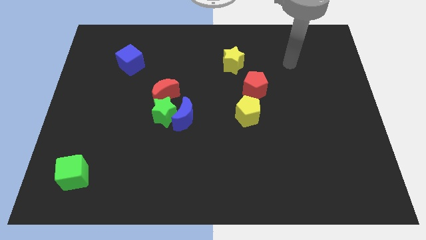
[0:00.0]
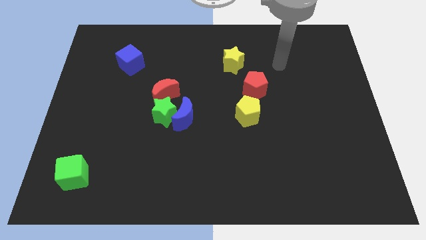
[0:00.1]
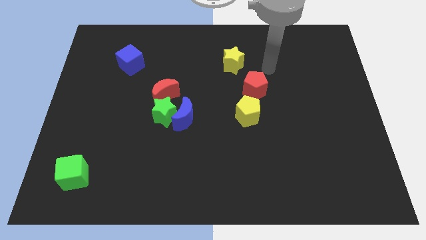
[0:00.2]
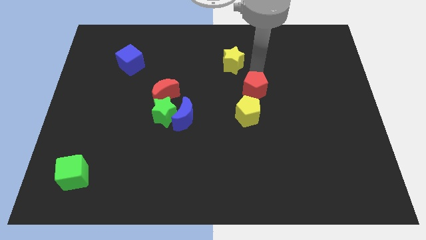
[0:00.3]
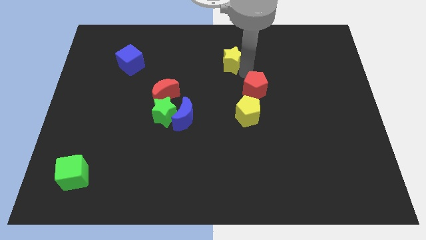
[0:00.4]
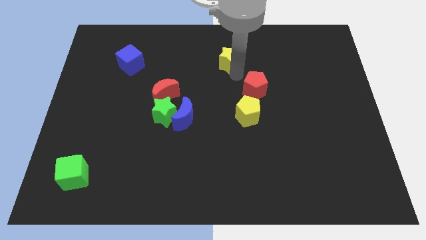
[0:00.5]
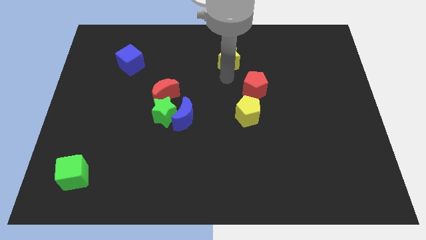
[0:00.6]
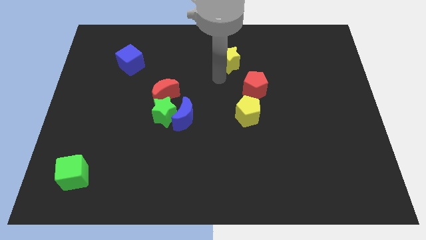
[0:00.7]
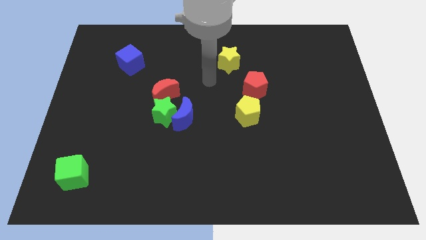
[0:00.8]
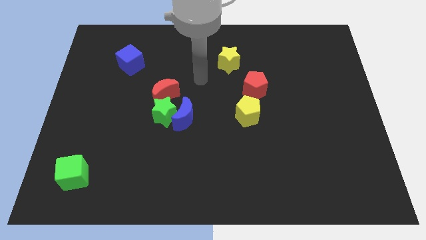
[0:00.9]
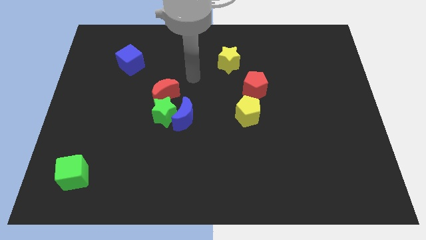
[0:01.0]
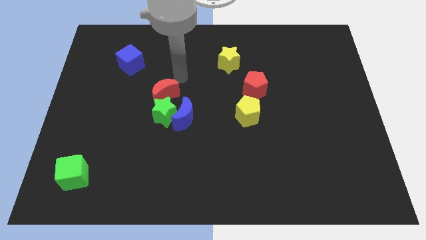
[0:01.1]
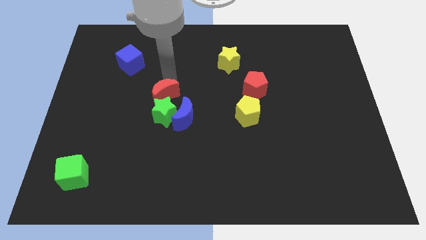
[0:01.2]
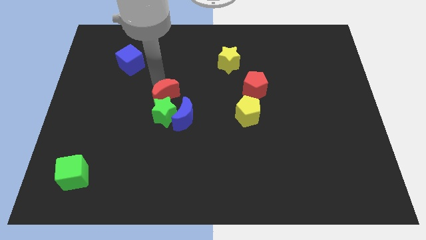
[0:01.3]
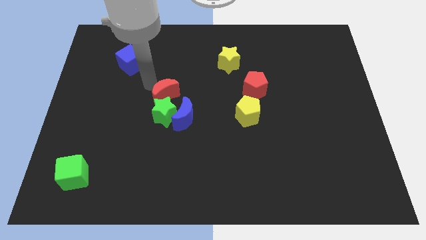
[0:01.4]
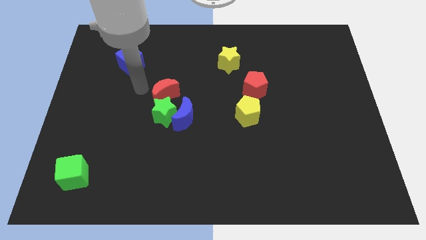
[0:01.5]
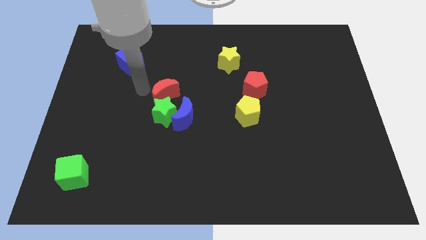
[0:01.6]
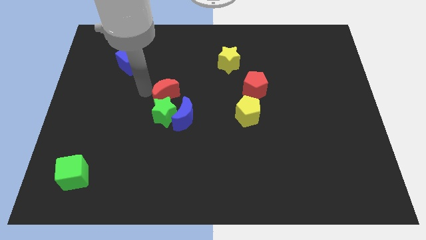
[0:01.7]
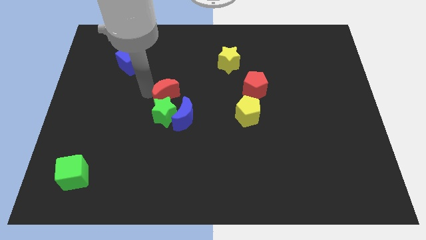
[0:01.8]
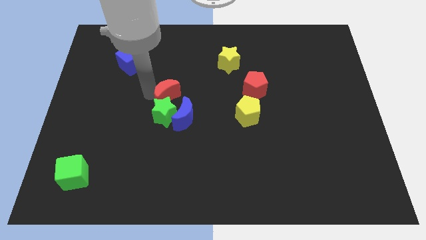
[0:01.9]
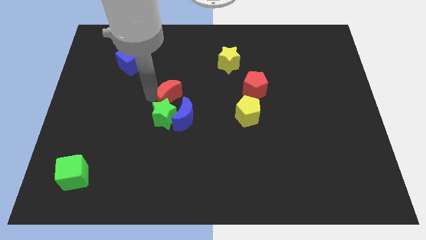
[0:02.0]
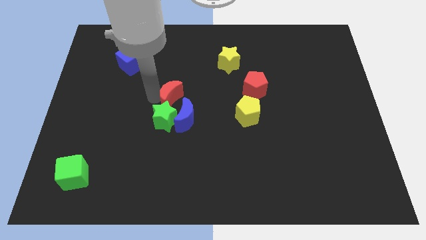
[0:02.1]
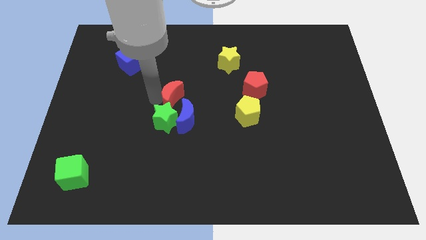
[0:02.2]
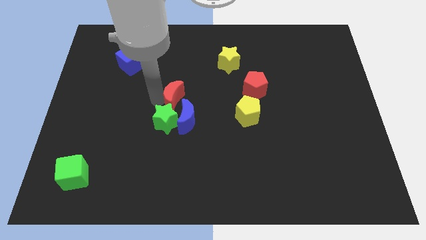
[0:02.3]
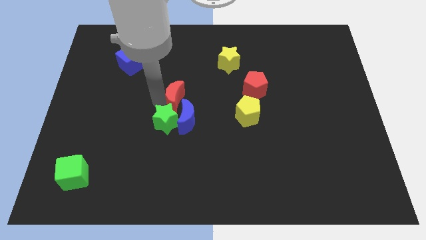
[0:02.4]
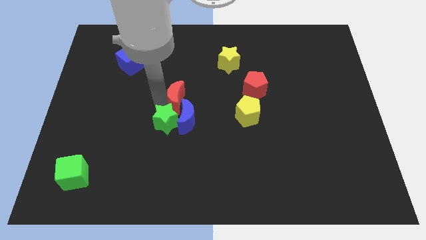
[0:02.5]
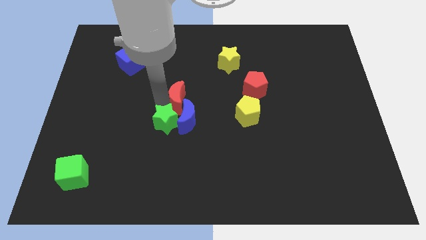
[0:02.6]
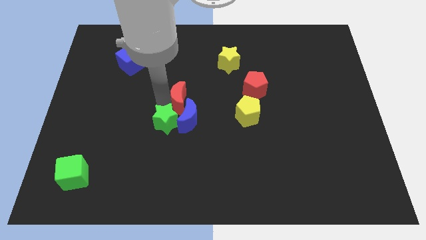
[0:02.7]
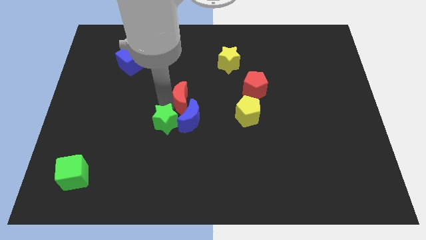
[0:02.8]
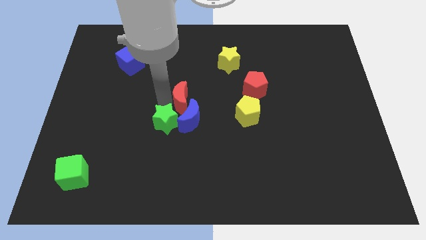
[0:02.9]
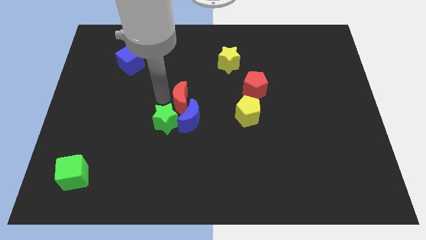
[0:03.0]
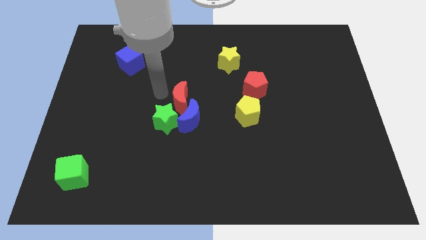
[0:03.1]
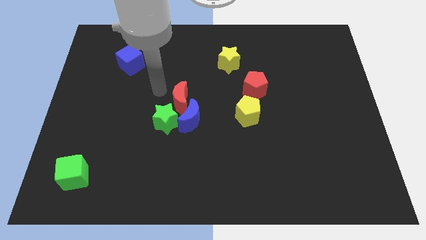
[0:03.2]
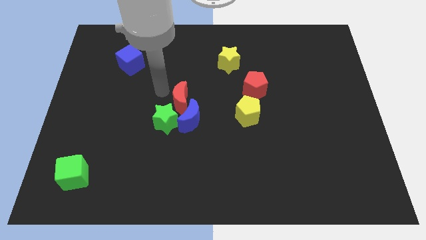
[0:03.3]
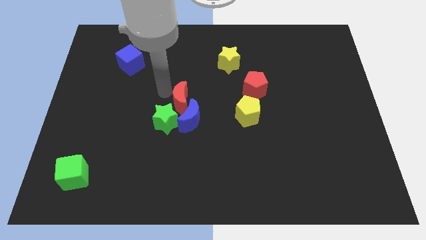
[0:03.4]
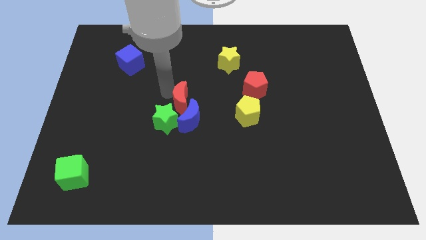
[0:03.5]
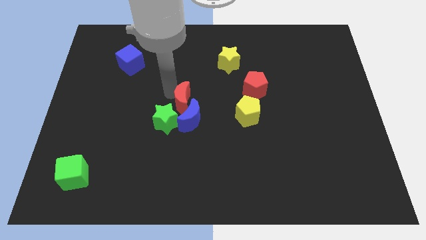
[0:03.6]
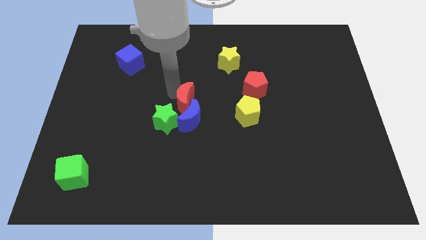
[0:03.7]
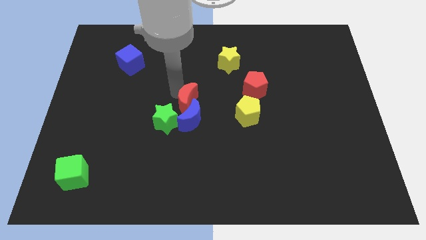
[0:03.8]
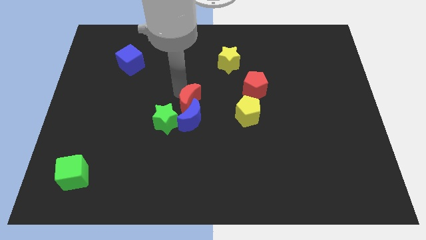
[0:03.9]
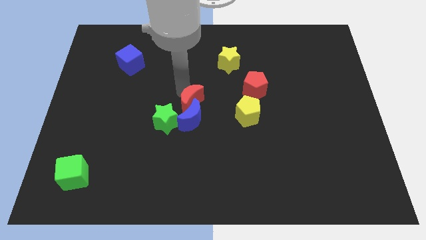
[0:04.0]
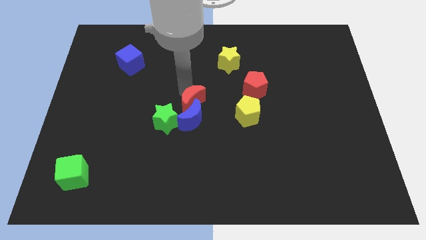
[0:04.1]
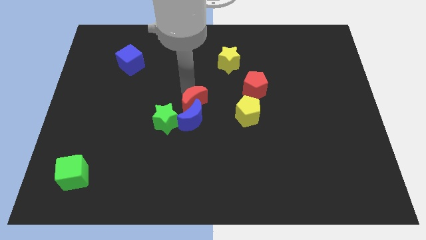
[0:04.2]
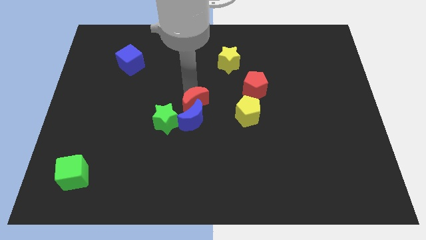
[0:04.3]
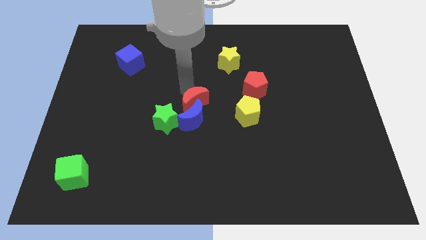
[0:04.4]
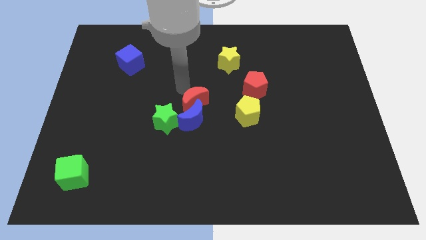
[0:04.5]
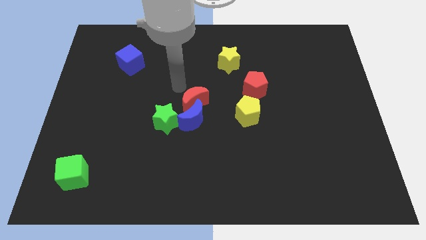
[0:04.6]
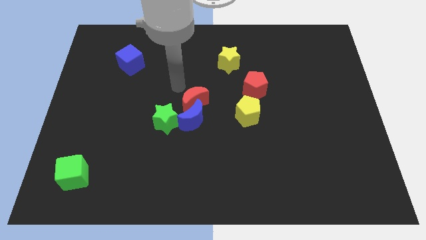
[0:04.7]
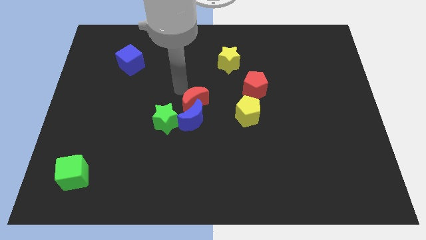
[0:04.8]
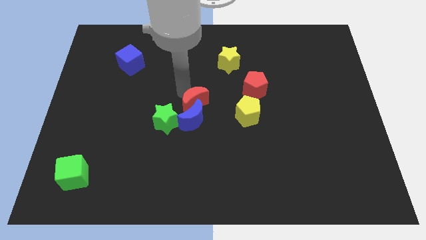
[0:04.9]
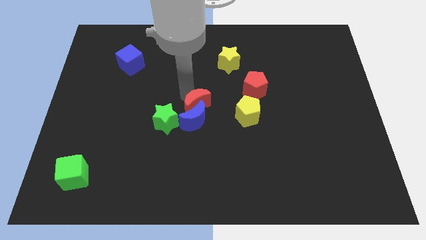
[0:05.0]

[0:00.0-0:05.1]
slide the red moon somewhat downwards and then to the right

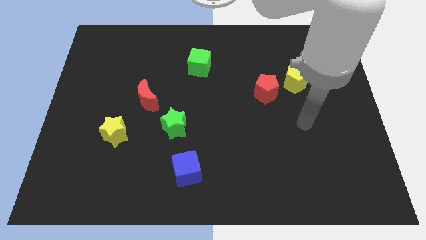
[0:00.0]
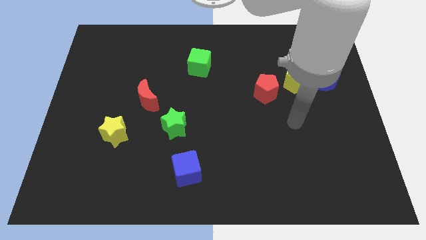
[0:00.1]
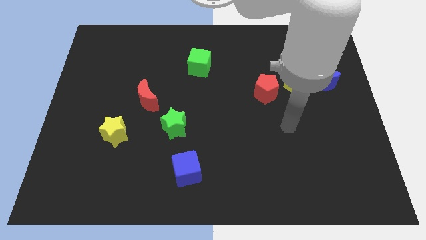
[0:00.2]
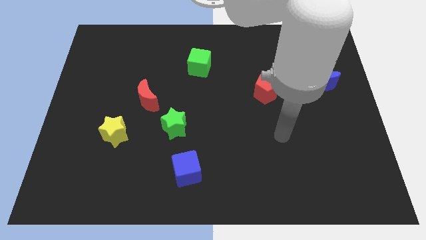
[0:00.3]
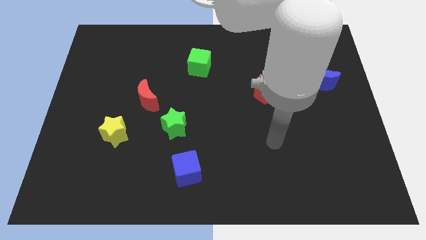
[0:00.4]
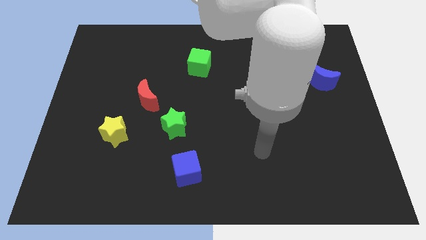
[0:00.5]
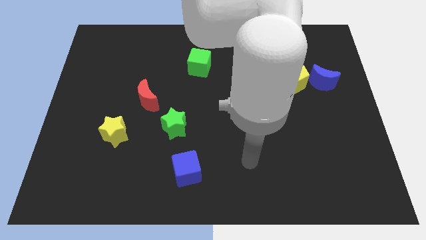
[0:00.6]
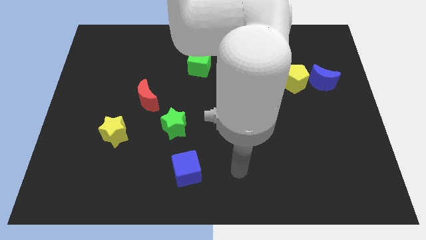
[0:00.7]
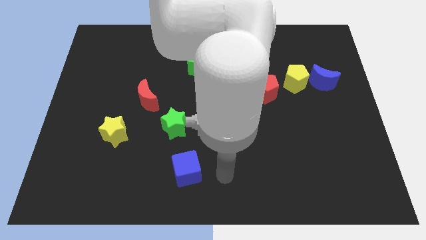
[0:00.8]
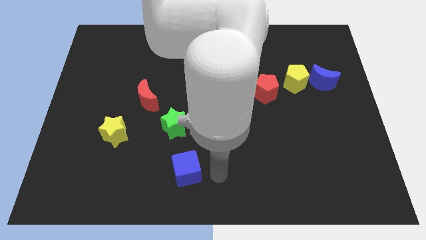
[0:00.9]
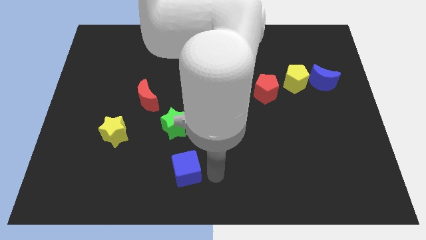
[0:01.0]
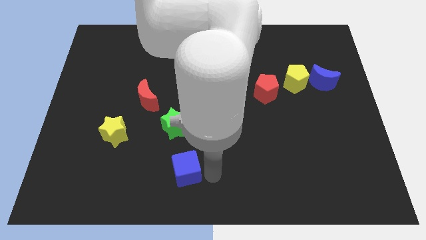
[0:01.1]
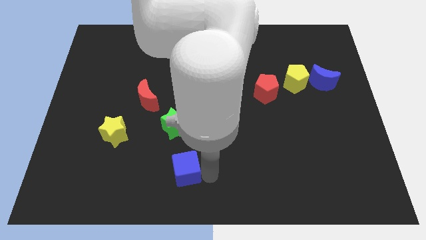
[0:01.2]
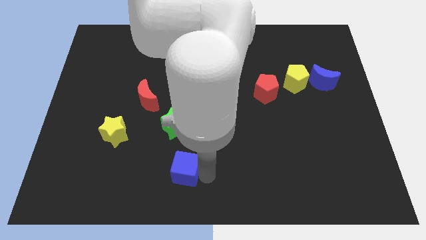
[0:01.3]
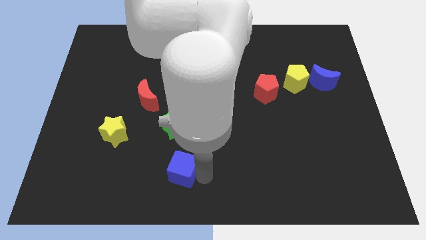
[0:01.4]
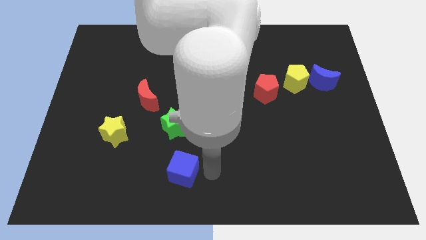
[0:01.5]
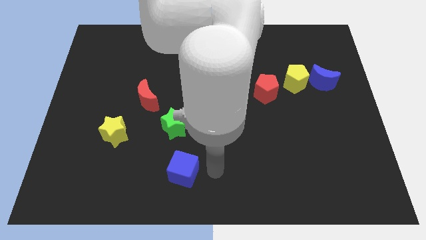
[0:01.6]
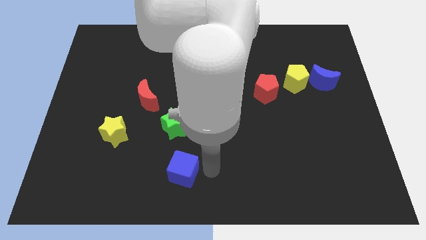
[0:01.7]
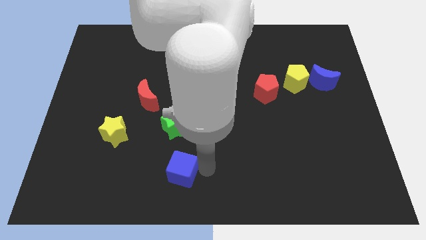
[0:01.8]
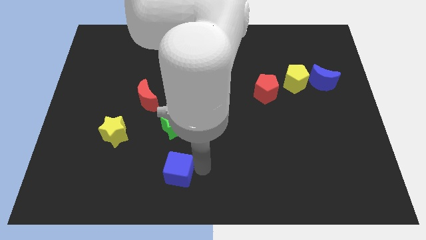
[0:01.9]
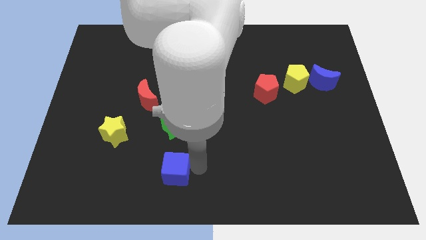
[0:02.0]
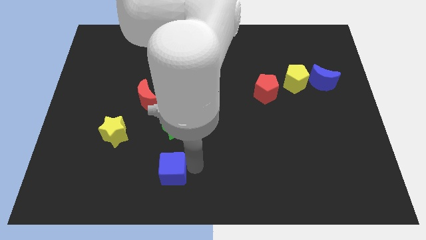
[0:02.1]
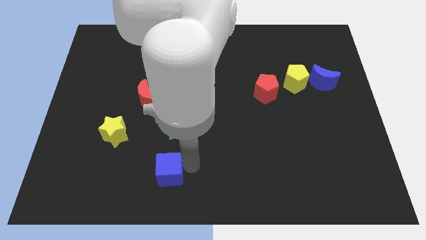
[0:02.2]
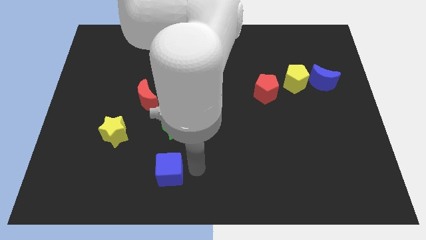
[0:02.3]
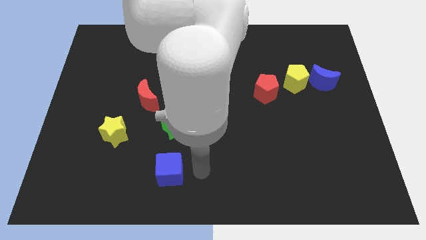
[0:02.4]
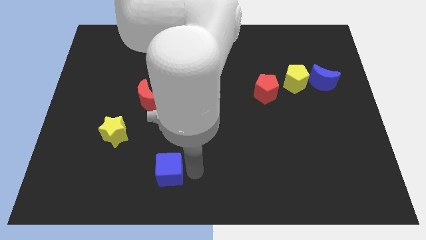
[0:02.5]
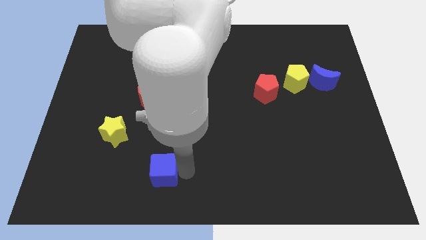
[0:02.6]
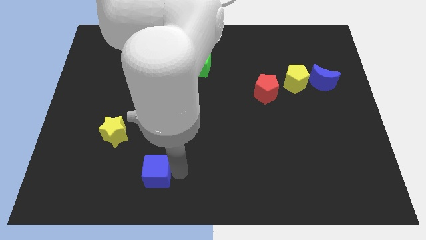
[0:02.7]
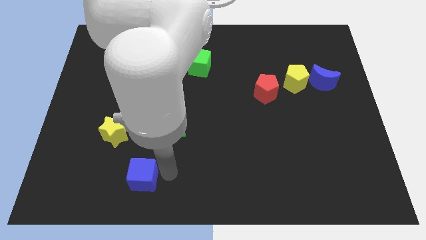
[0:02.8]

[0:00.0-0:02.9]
slightly move the blue cube to the left
